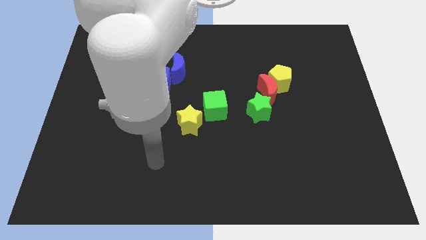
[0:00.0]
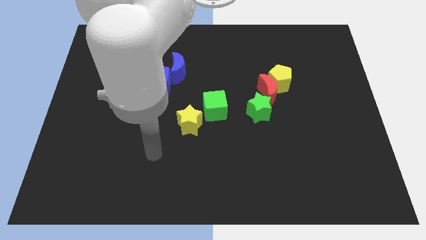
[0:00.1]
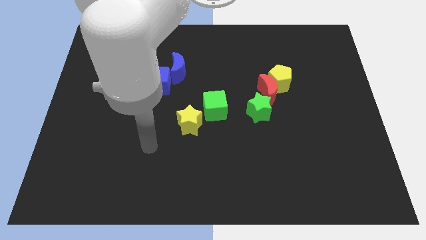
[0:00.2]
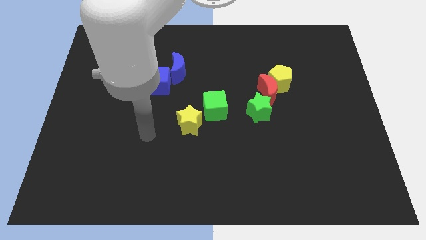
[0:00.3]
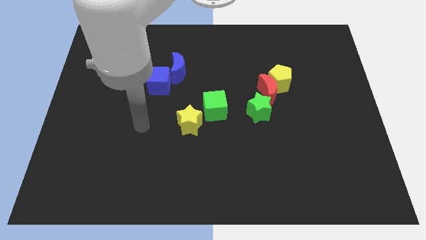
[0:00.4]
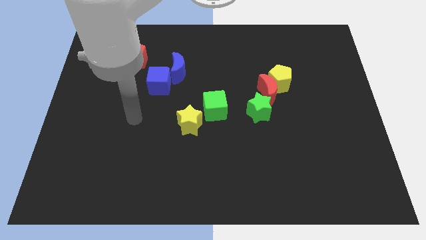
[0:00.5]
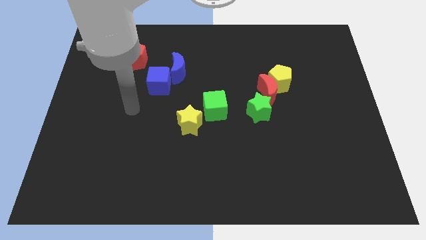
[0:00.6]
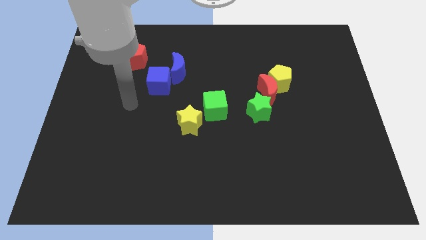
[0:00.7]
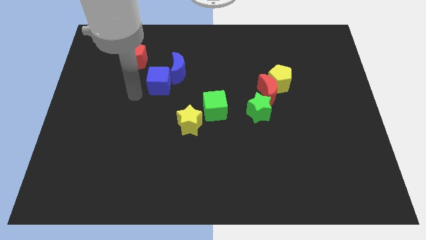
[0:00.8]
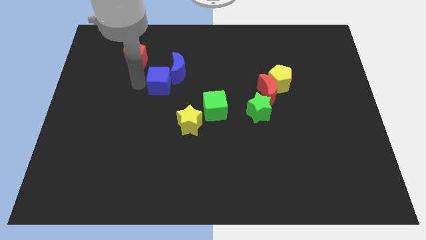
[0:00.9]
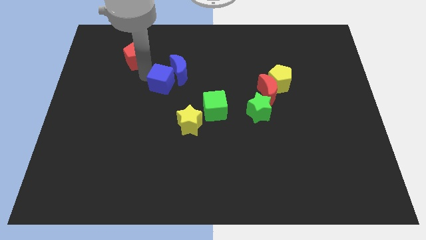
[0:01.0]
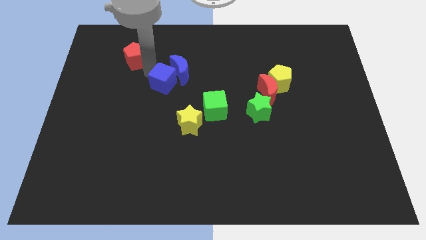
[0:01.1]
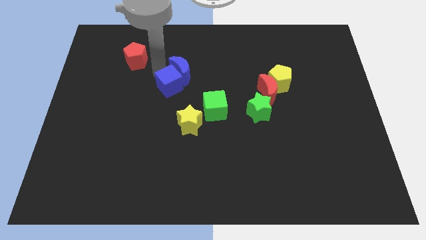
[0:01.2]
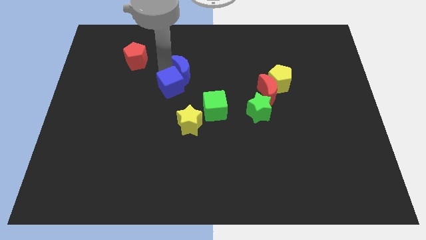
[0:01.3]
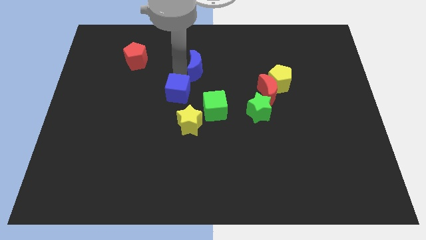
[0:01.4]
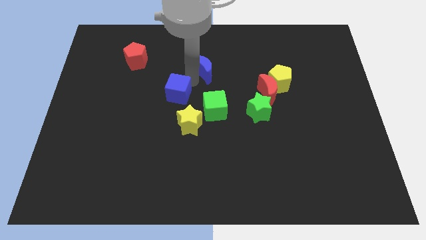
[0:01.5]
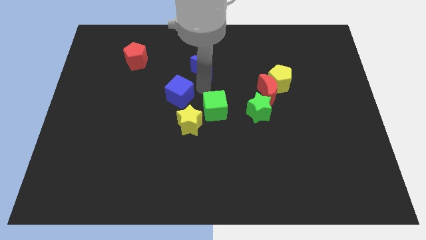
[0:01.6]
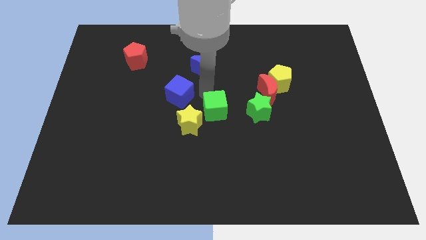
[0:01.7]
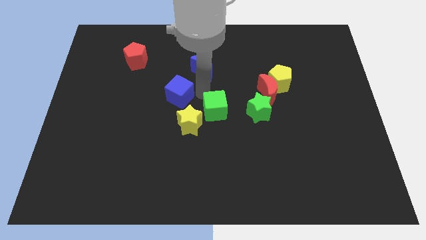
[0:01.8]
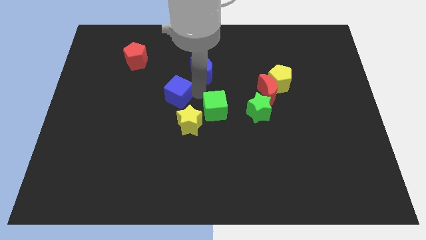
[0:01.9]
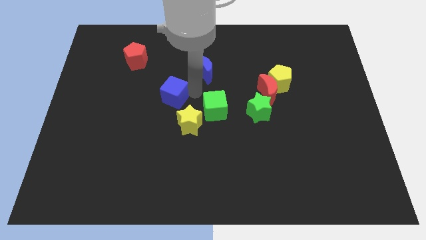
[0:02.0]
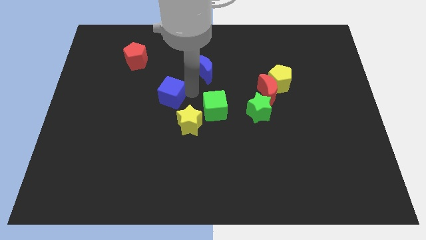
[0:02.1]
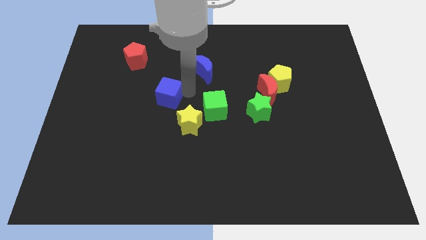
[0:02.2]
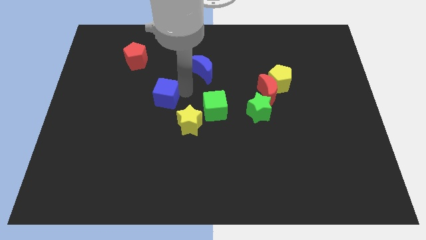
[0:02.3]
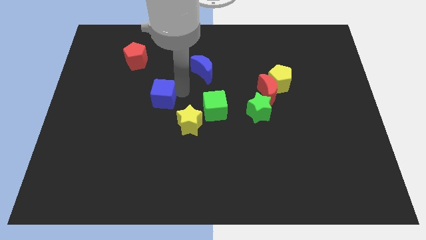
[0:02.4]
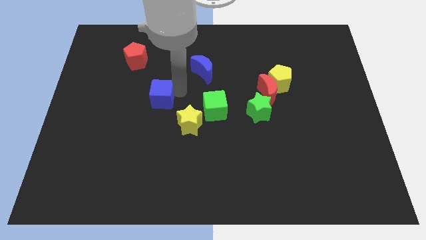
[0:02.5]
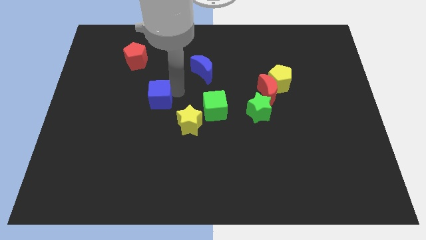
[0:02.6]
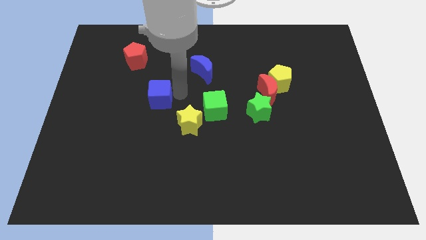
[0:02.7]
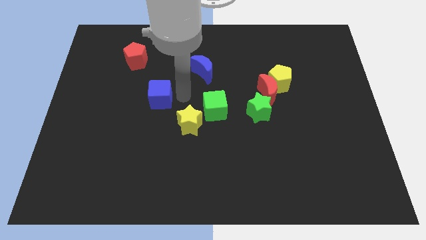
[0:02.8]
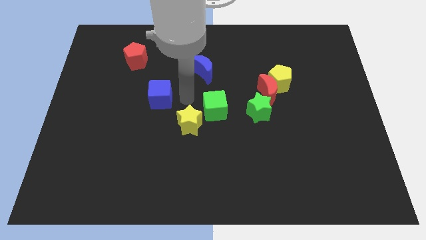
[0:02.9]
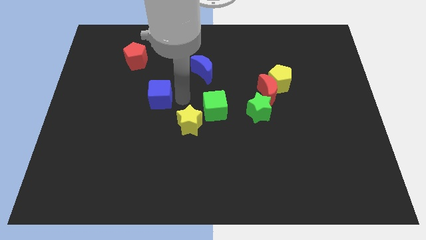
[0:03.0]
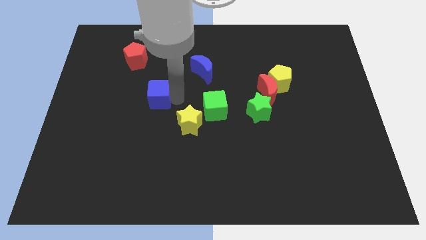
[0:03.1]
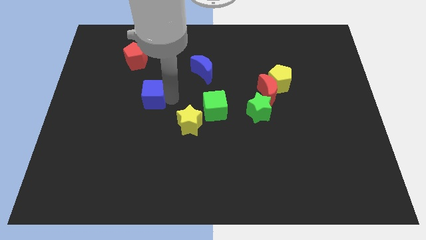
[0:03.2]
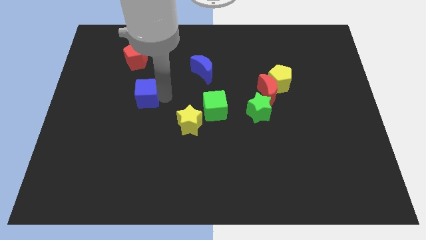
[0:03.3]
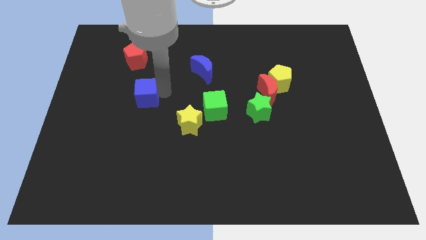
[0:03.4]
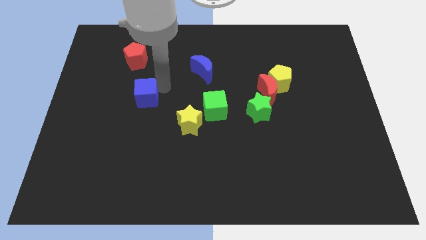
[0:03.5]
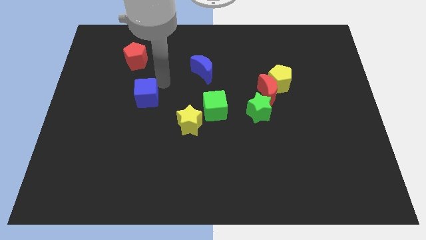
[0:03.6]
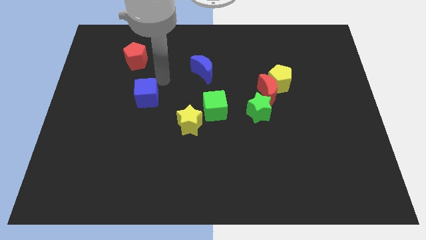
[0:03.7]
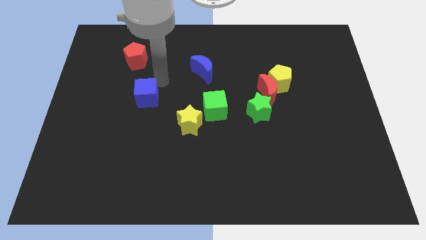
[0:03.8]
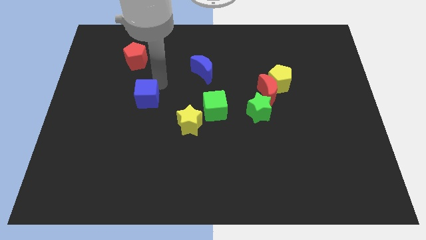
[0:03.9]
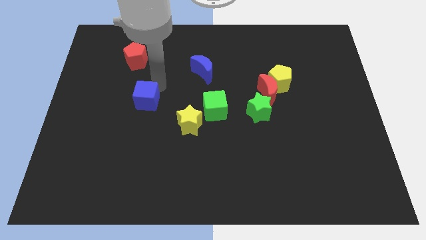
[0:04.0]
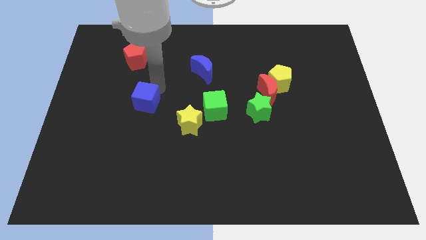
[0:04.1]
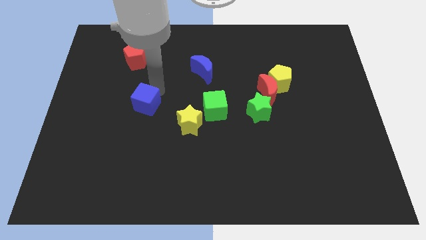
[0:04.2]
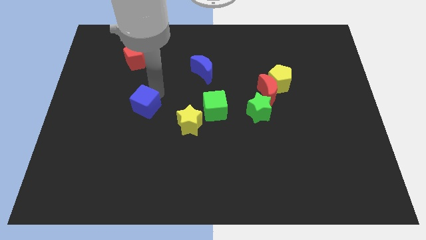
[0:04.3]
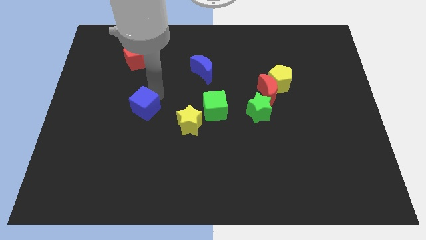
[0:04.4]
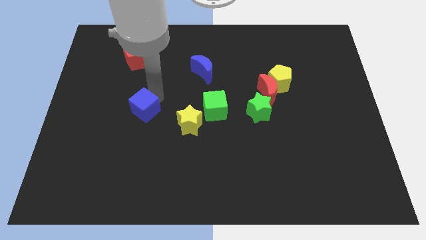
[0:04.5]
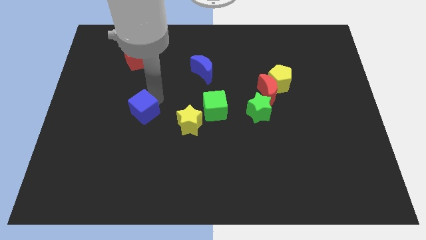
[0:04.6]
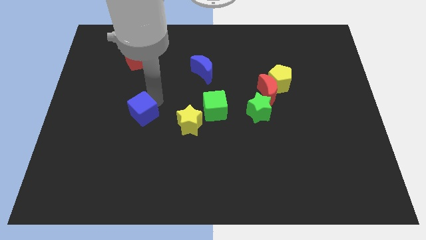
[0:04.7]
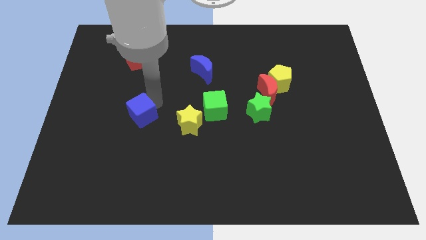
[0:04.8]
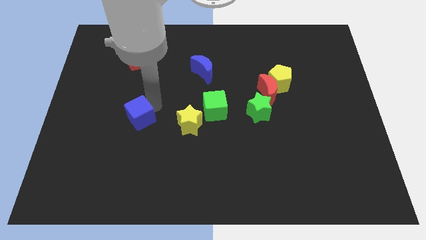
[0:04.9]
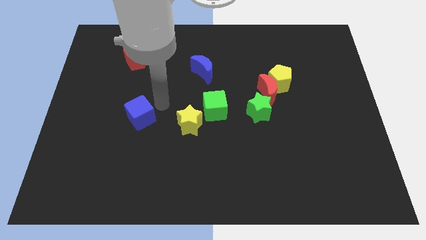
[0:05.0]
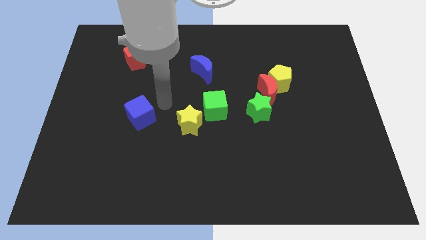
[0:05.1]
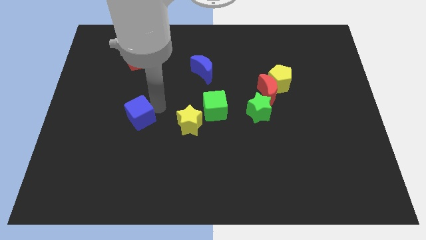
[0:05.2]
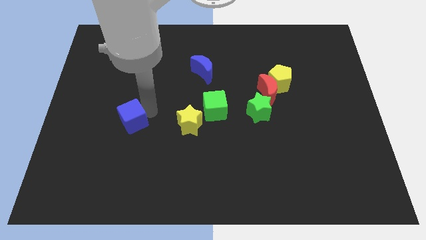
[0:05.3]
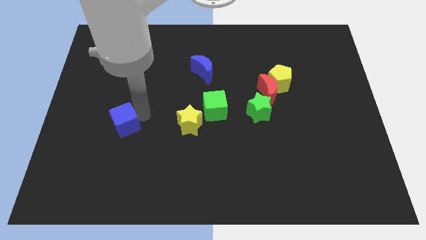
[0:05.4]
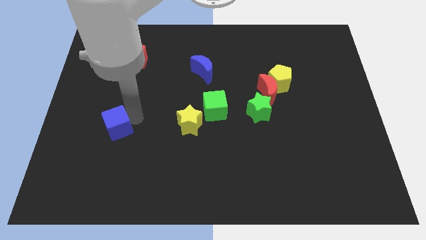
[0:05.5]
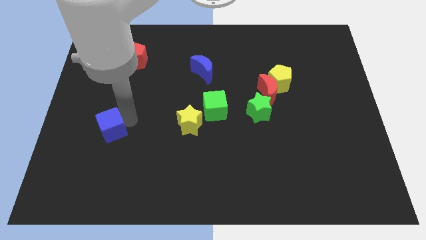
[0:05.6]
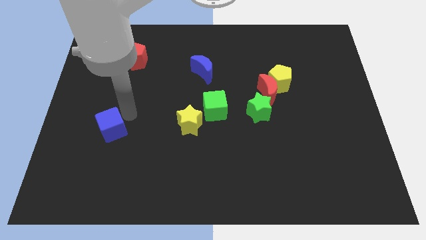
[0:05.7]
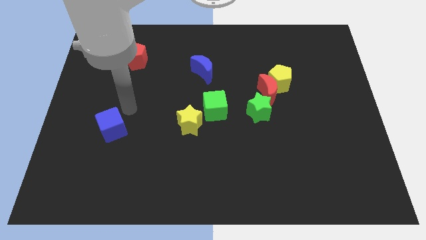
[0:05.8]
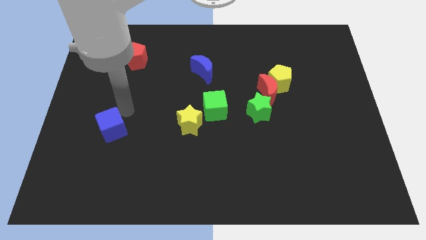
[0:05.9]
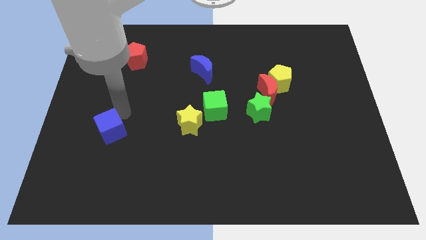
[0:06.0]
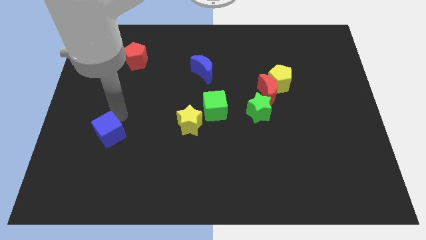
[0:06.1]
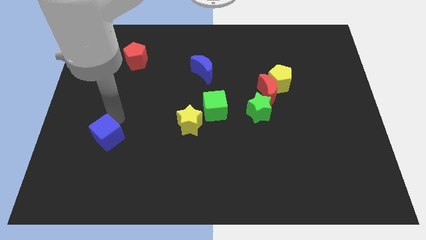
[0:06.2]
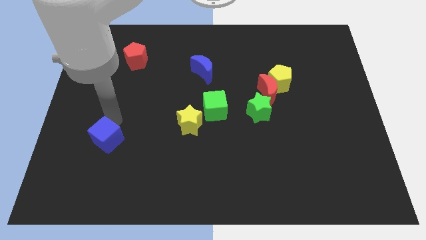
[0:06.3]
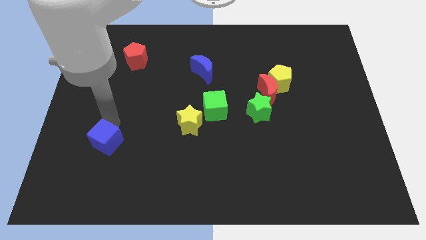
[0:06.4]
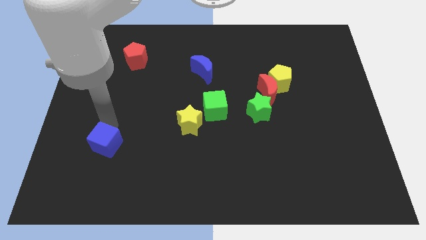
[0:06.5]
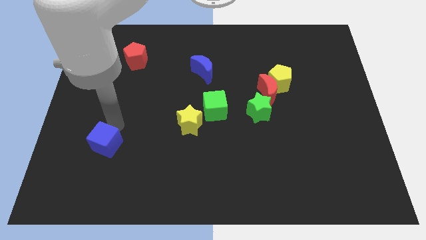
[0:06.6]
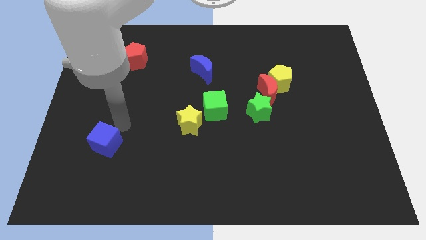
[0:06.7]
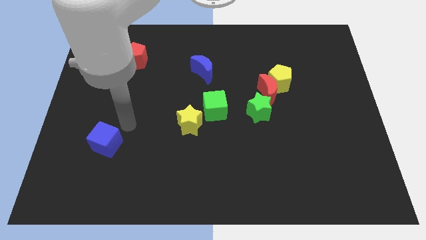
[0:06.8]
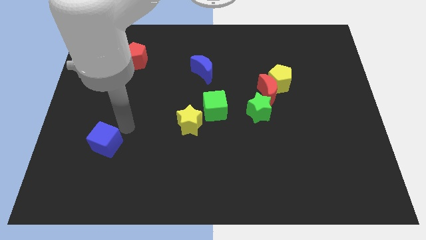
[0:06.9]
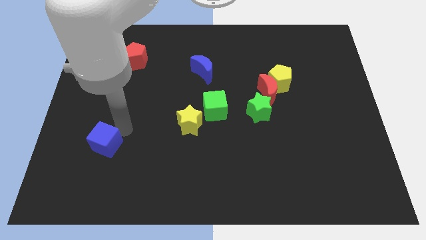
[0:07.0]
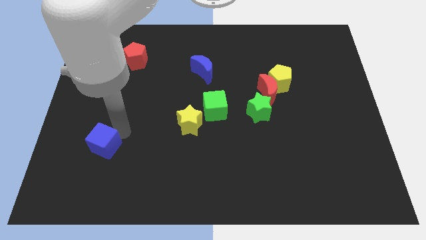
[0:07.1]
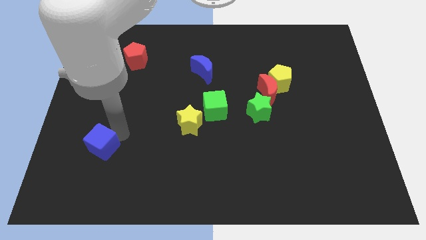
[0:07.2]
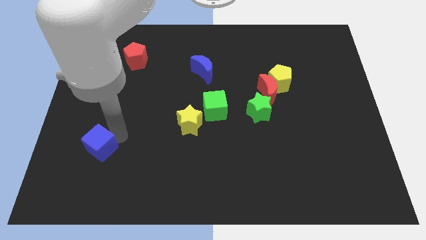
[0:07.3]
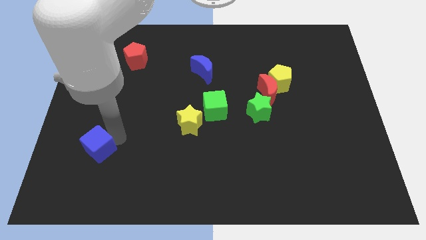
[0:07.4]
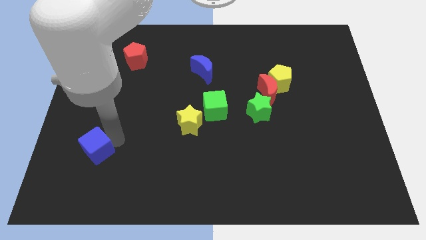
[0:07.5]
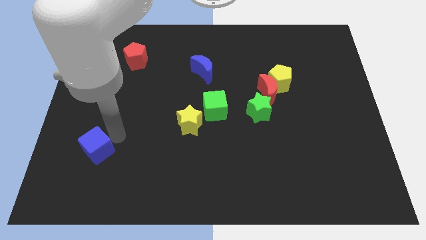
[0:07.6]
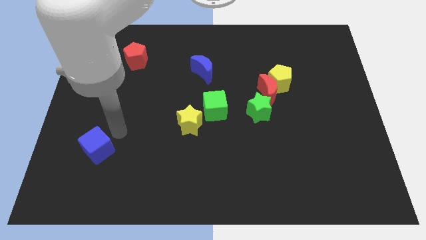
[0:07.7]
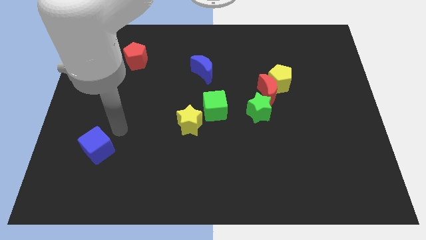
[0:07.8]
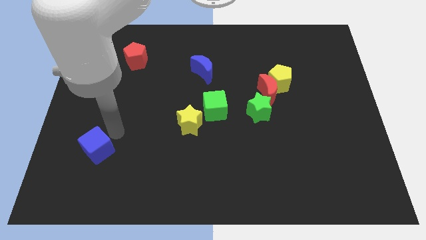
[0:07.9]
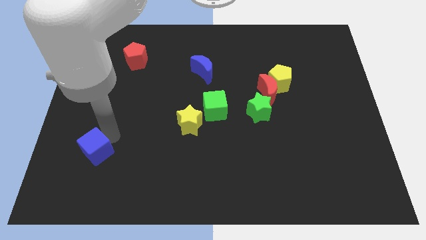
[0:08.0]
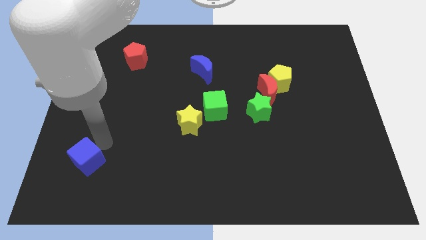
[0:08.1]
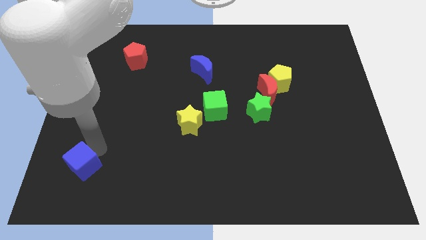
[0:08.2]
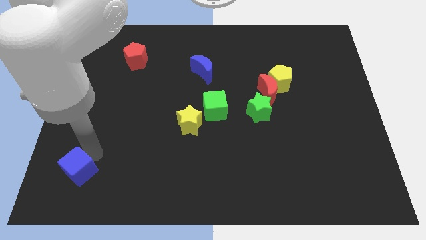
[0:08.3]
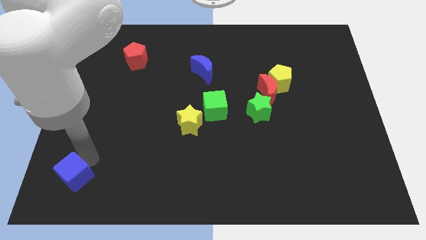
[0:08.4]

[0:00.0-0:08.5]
move the blue cube to the lower left corner
